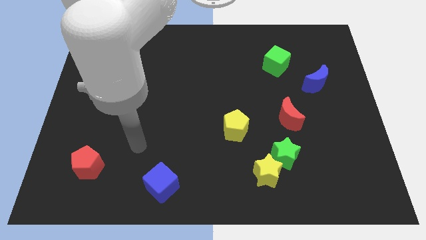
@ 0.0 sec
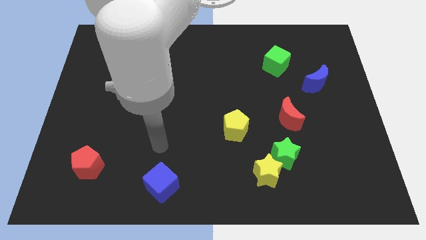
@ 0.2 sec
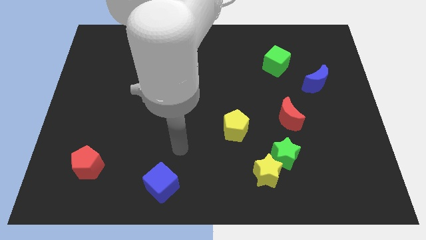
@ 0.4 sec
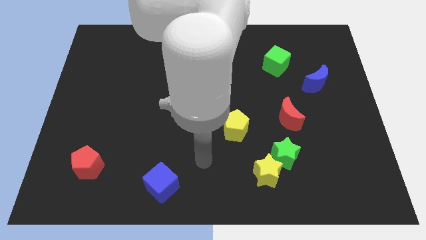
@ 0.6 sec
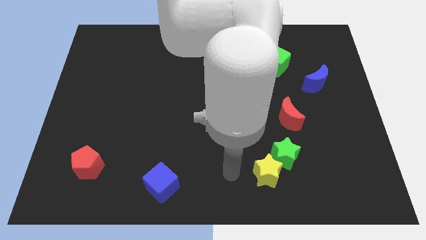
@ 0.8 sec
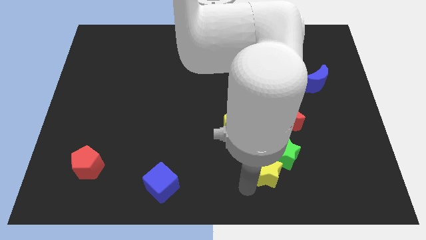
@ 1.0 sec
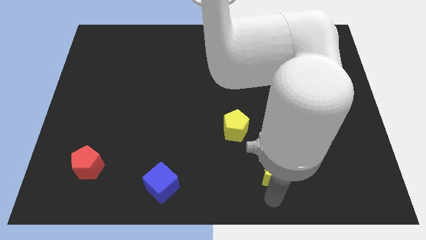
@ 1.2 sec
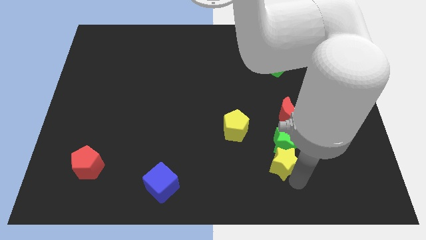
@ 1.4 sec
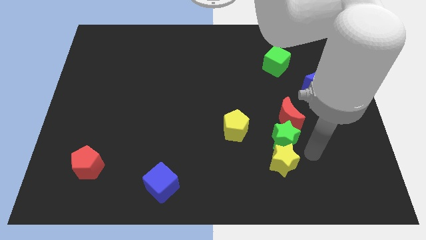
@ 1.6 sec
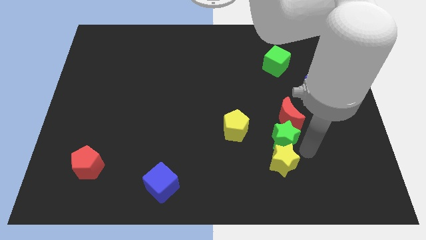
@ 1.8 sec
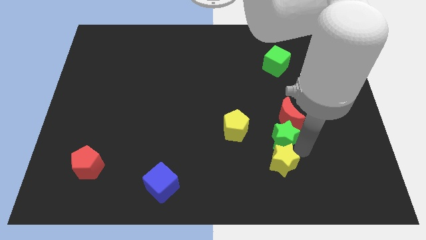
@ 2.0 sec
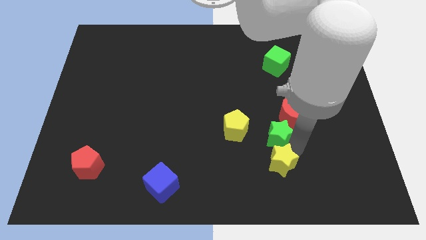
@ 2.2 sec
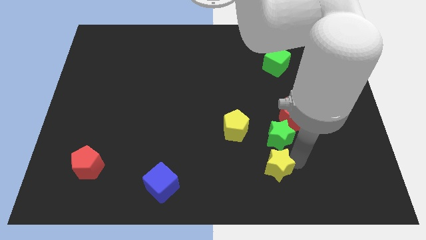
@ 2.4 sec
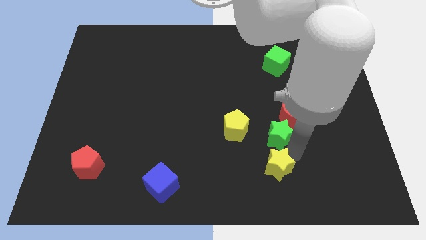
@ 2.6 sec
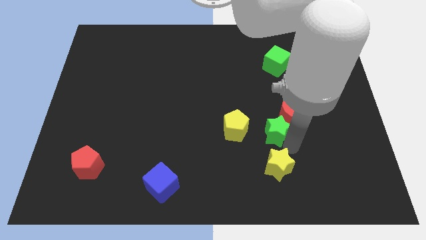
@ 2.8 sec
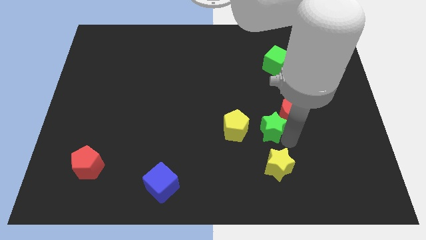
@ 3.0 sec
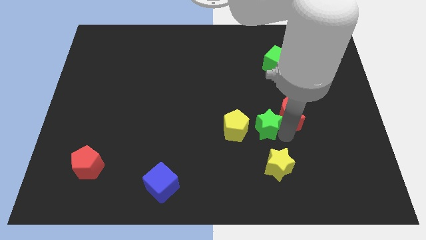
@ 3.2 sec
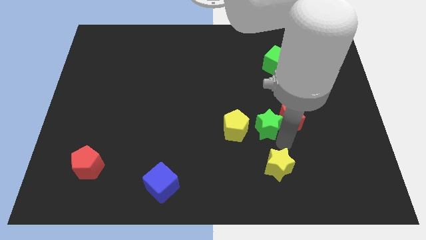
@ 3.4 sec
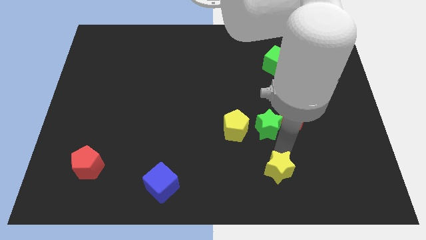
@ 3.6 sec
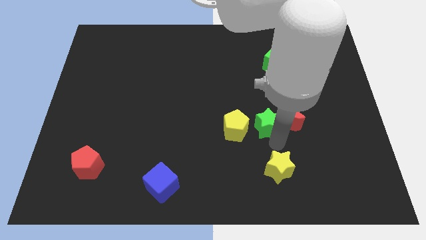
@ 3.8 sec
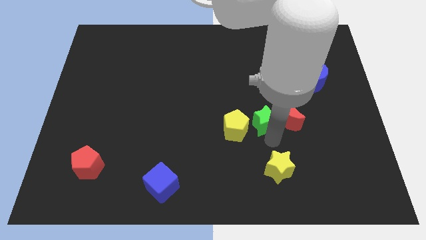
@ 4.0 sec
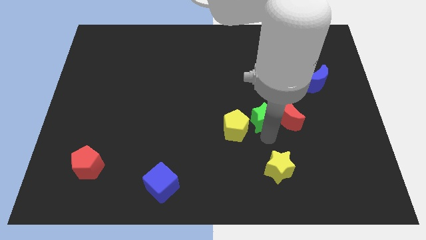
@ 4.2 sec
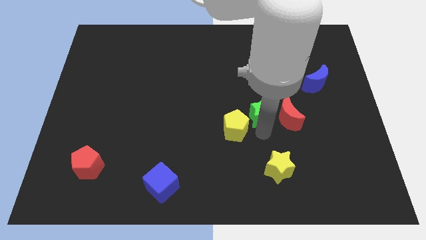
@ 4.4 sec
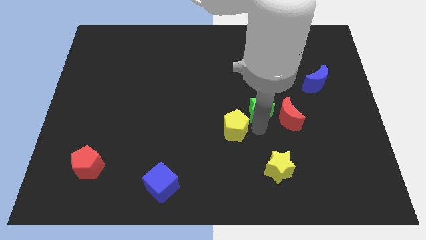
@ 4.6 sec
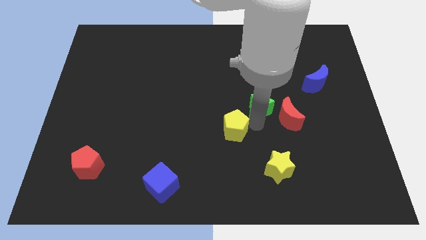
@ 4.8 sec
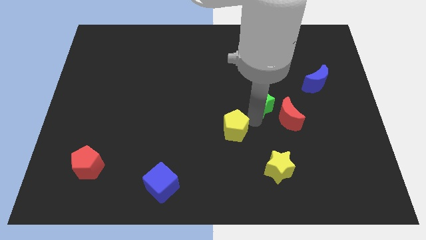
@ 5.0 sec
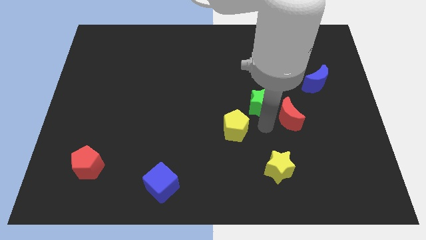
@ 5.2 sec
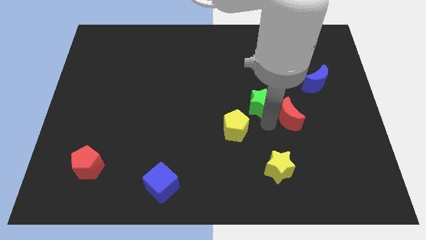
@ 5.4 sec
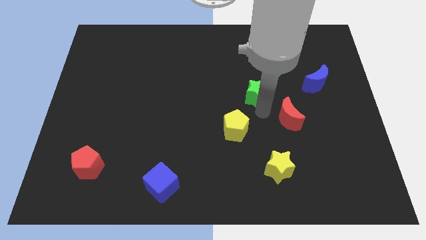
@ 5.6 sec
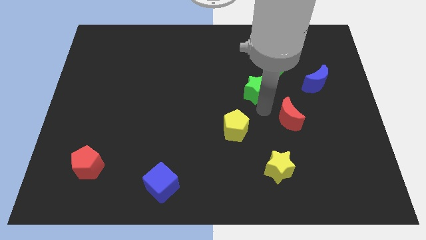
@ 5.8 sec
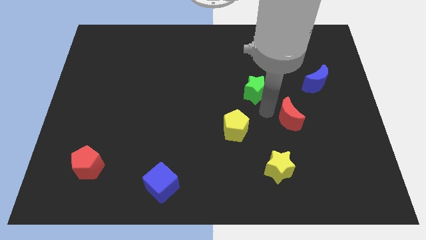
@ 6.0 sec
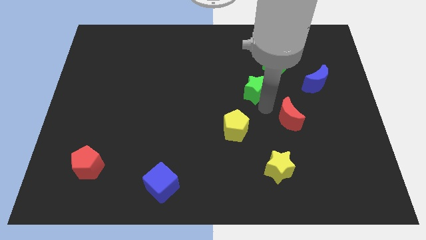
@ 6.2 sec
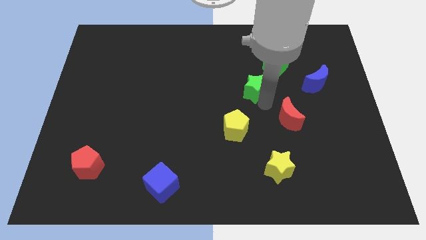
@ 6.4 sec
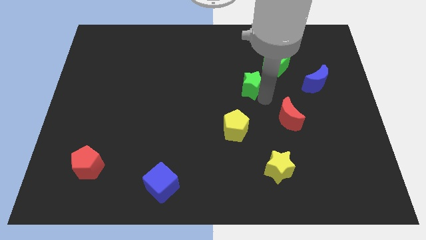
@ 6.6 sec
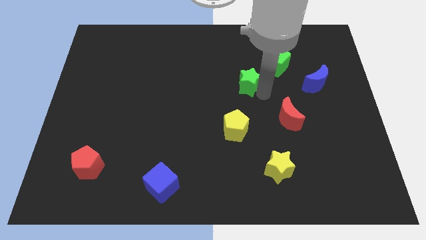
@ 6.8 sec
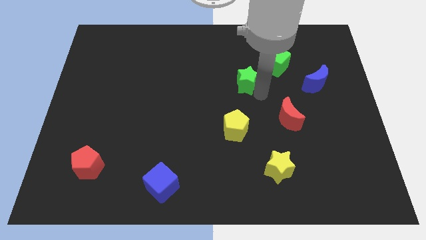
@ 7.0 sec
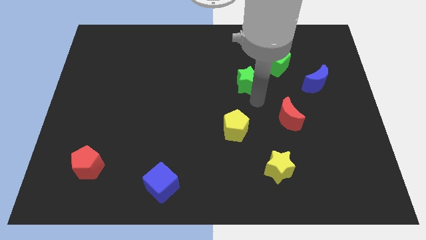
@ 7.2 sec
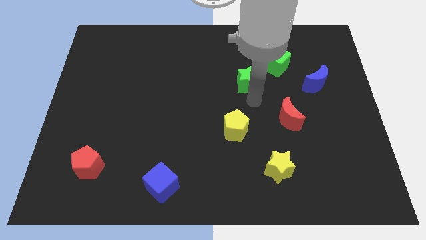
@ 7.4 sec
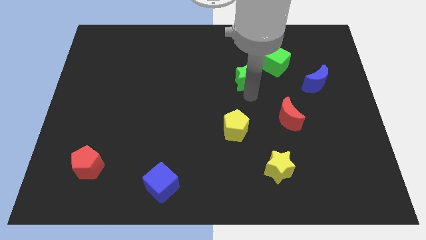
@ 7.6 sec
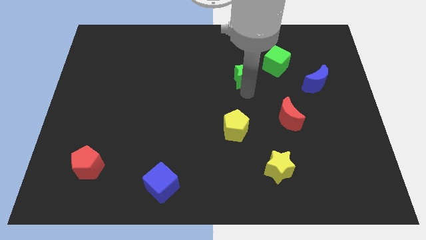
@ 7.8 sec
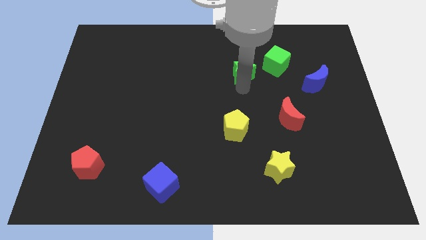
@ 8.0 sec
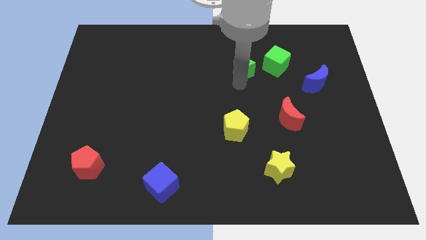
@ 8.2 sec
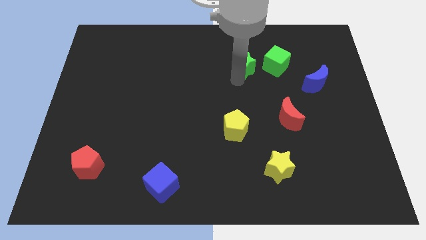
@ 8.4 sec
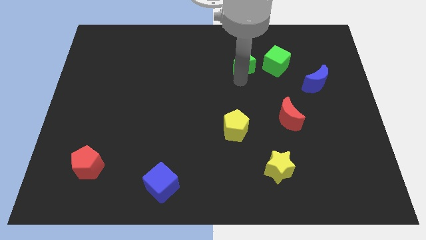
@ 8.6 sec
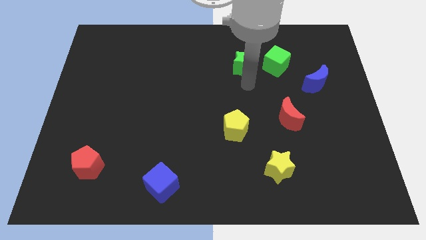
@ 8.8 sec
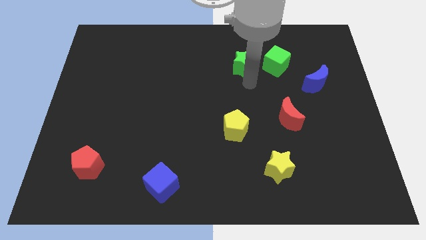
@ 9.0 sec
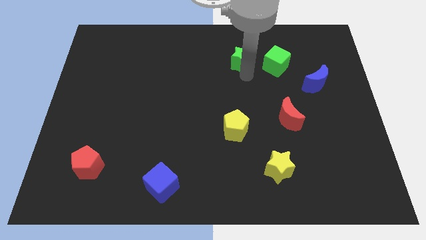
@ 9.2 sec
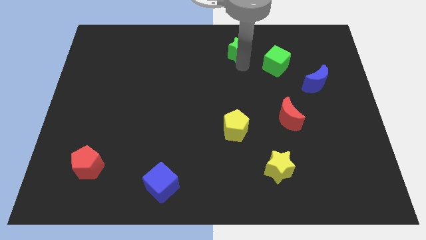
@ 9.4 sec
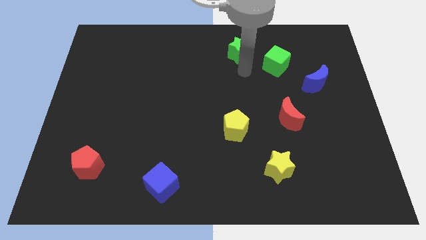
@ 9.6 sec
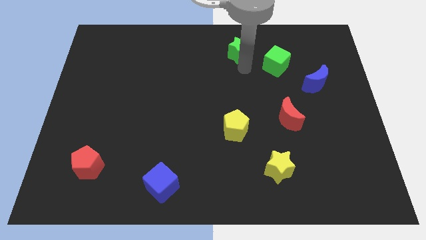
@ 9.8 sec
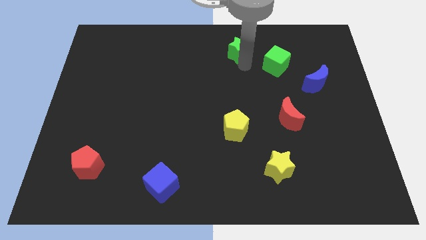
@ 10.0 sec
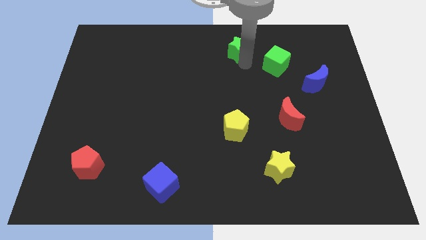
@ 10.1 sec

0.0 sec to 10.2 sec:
push the green star to the towards your base

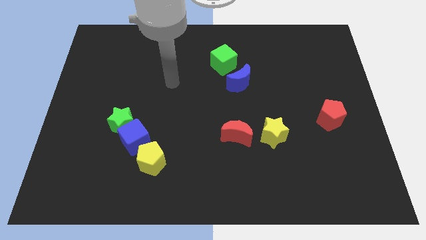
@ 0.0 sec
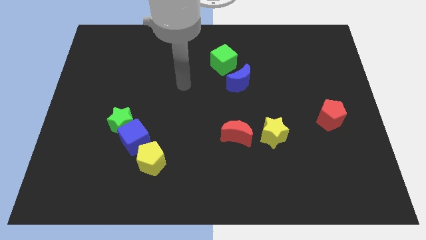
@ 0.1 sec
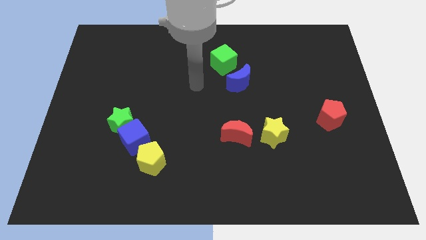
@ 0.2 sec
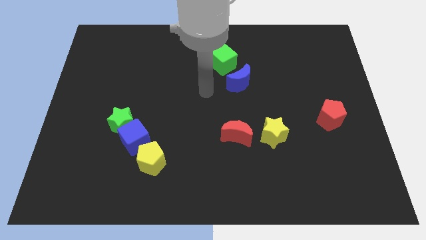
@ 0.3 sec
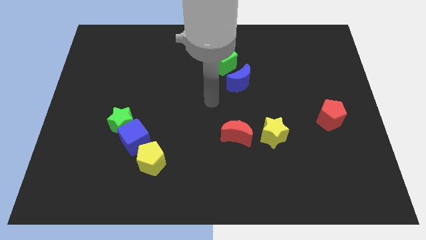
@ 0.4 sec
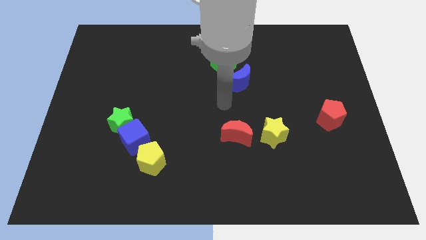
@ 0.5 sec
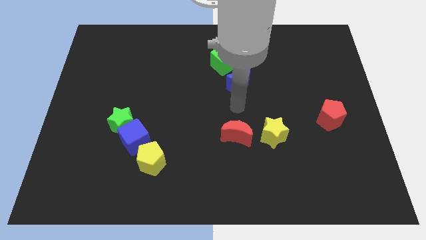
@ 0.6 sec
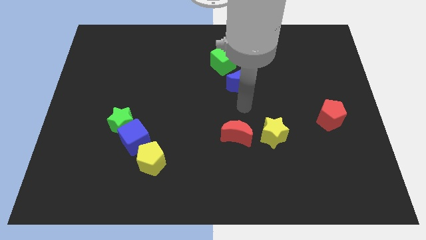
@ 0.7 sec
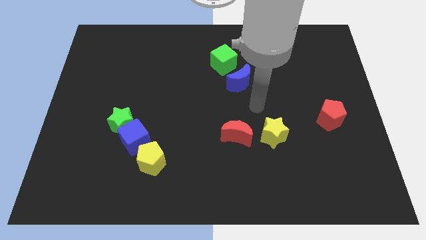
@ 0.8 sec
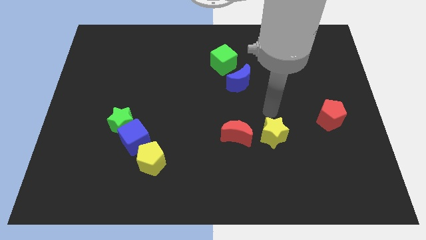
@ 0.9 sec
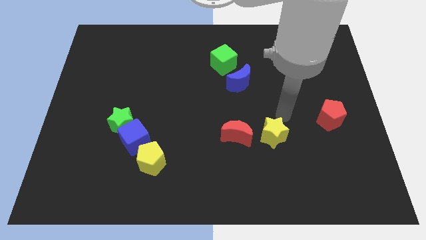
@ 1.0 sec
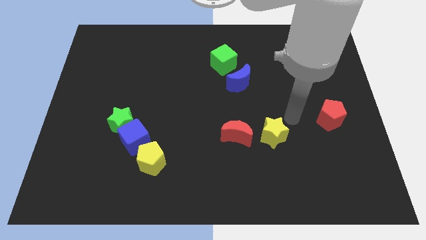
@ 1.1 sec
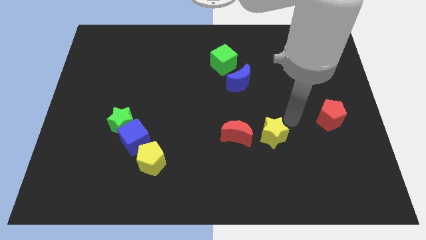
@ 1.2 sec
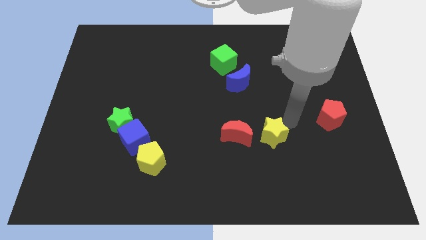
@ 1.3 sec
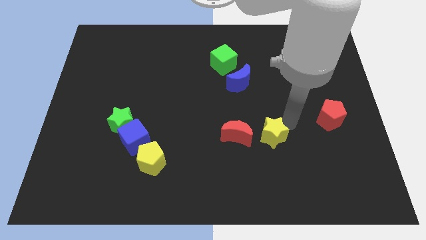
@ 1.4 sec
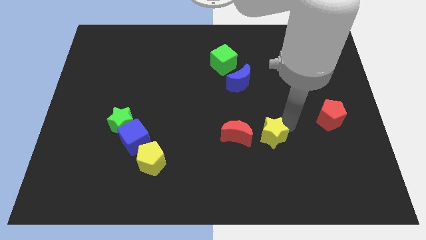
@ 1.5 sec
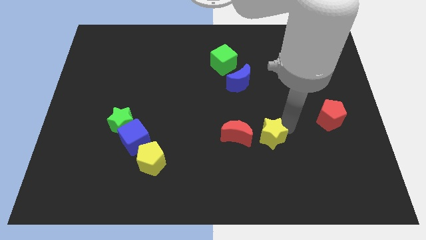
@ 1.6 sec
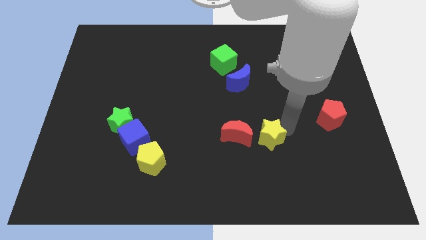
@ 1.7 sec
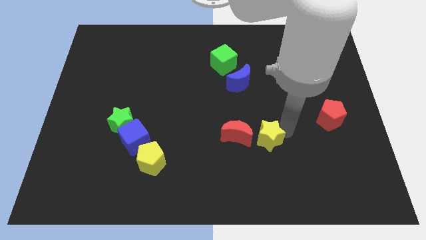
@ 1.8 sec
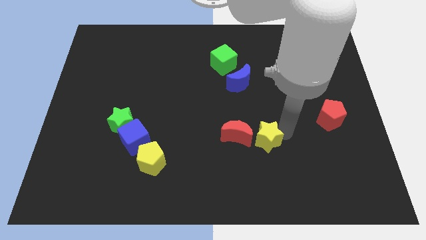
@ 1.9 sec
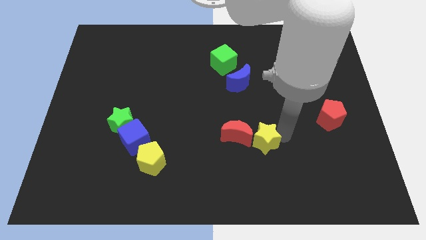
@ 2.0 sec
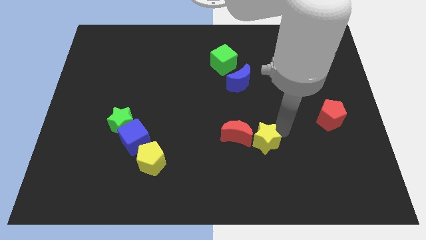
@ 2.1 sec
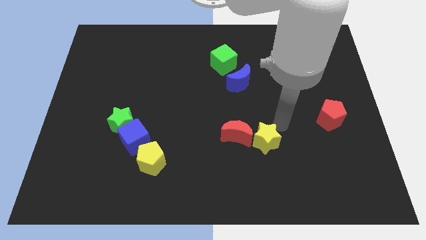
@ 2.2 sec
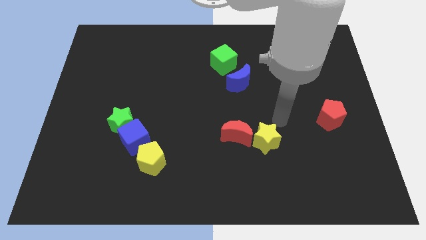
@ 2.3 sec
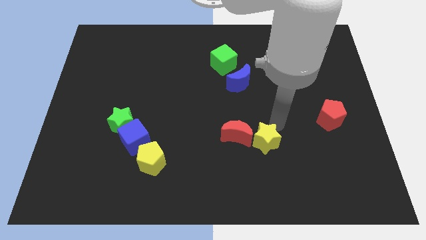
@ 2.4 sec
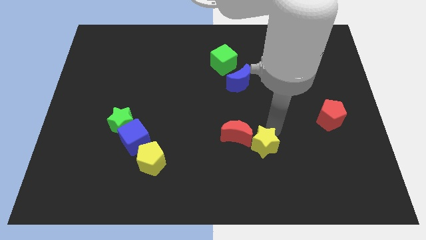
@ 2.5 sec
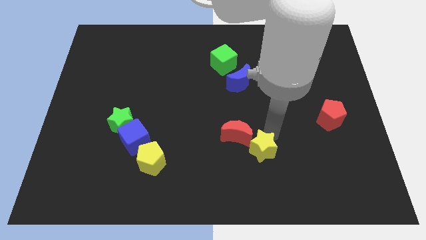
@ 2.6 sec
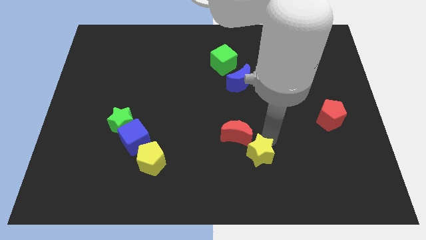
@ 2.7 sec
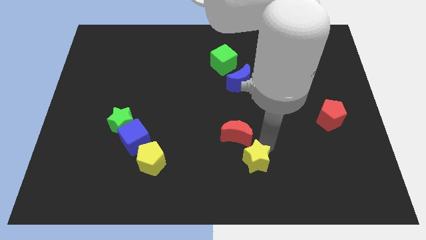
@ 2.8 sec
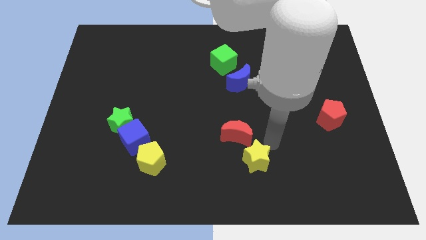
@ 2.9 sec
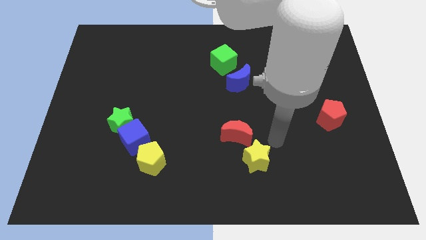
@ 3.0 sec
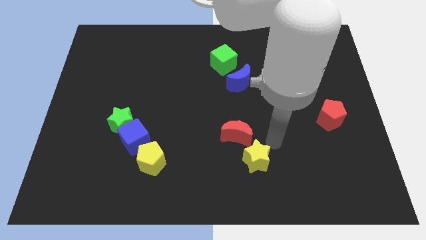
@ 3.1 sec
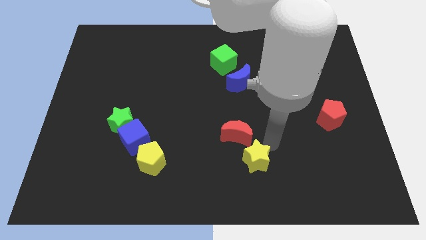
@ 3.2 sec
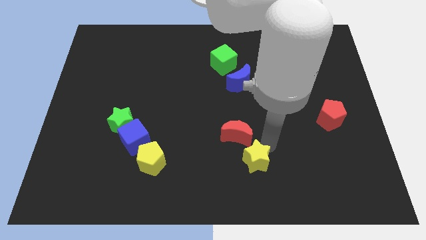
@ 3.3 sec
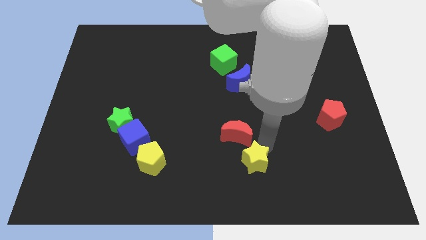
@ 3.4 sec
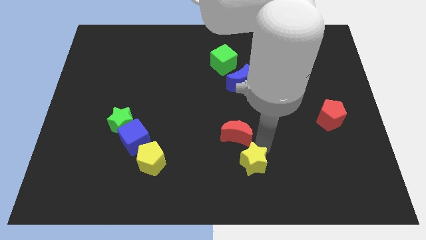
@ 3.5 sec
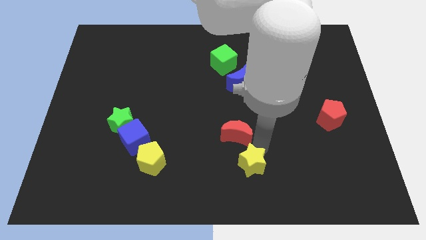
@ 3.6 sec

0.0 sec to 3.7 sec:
slide the yellow star to the bottom side
